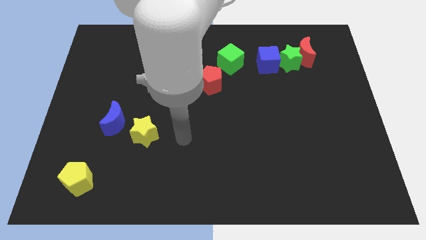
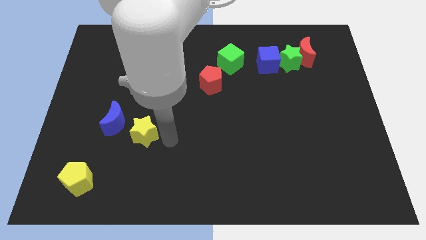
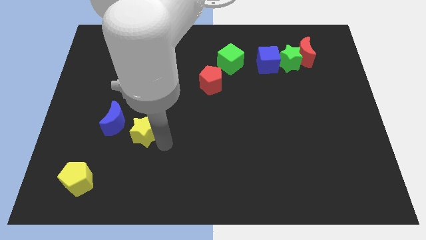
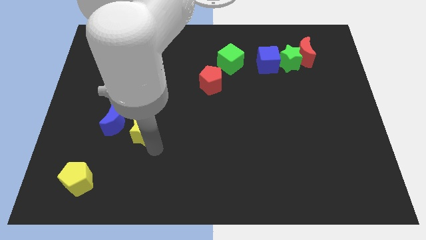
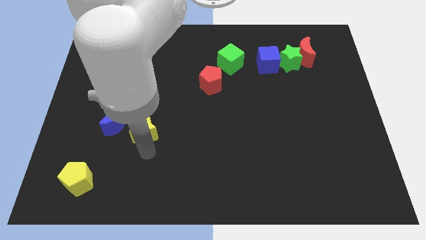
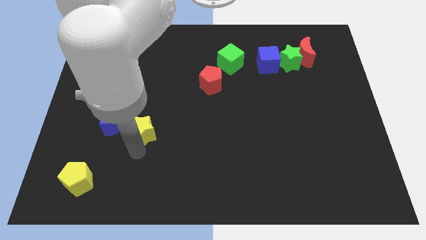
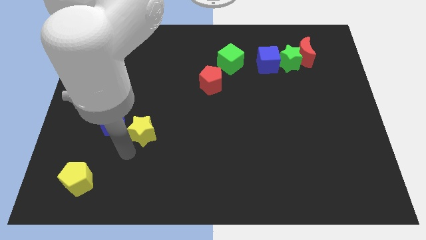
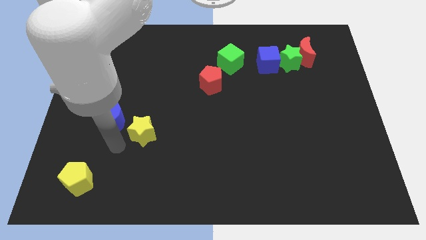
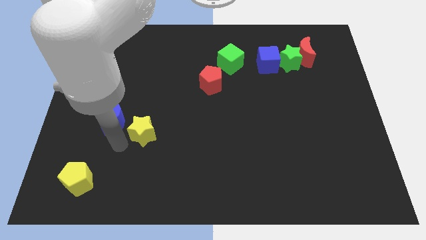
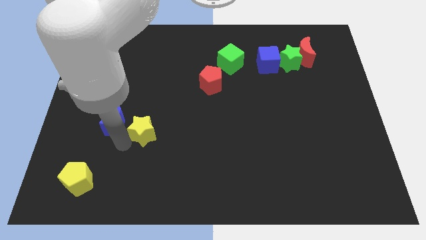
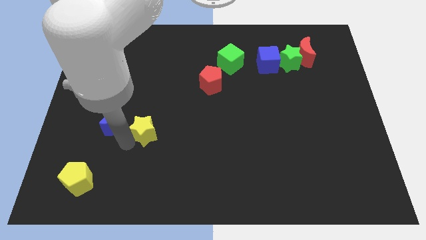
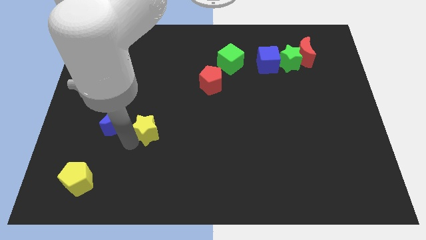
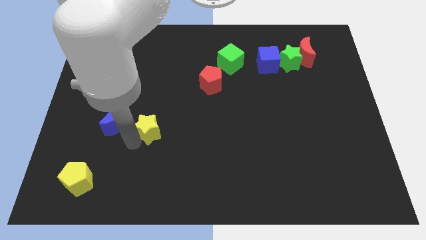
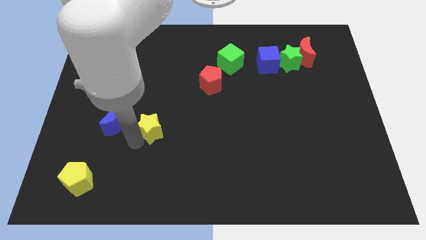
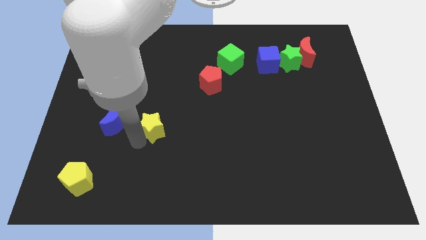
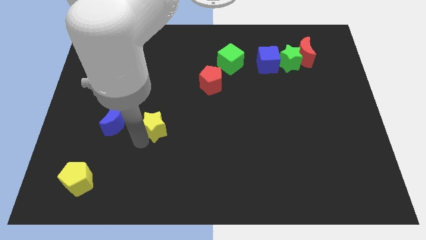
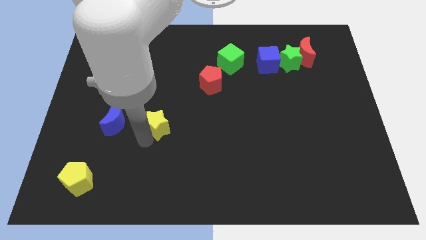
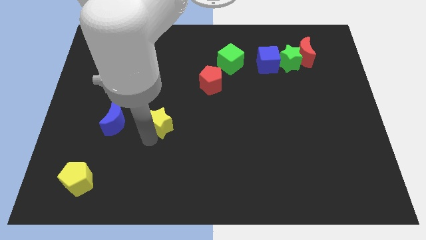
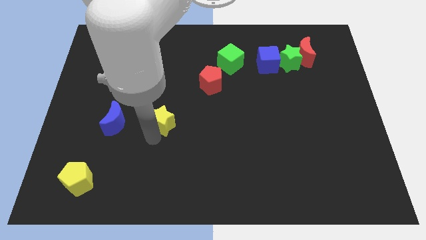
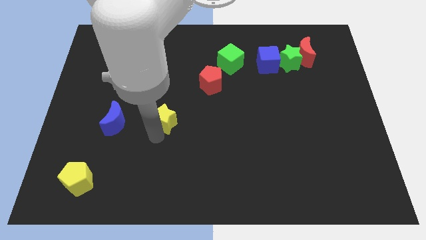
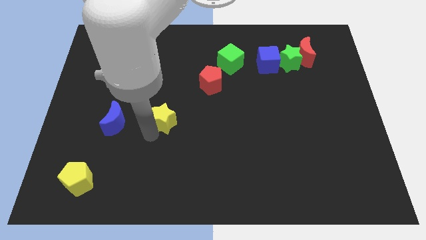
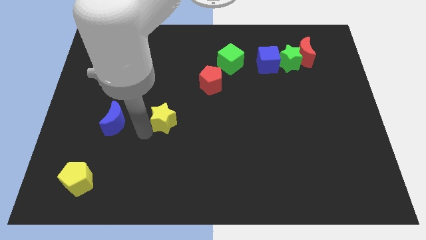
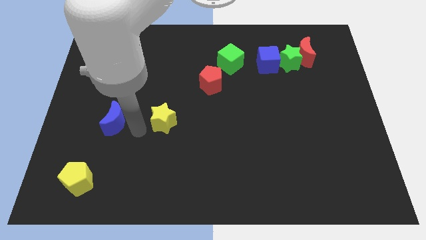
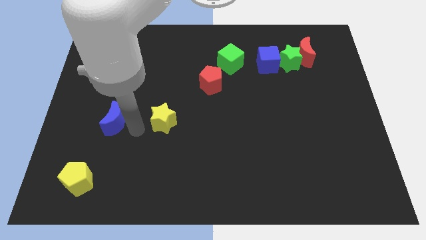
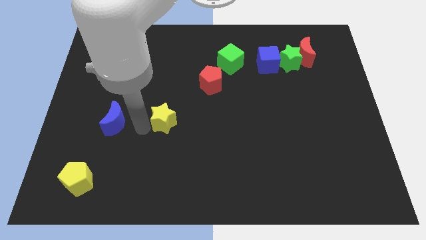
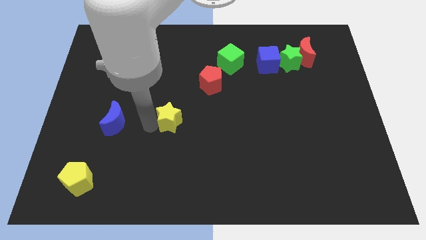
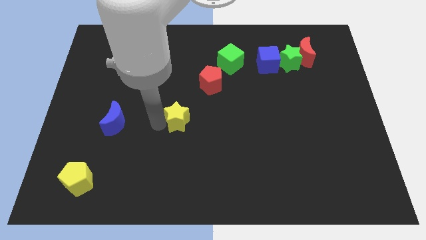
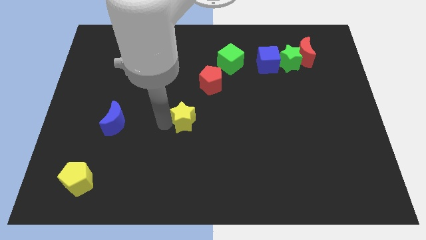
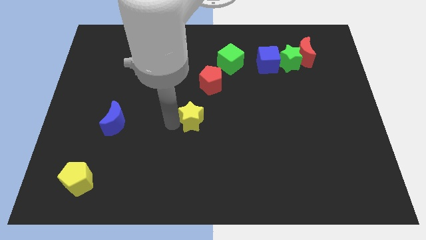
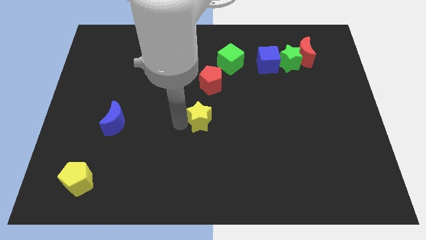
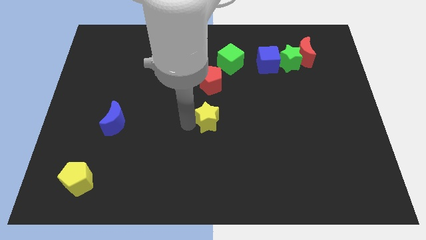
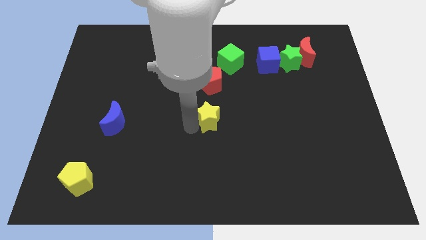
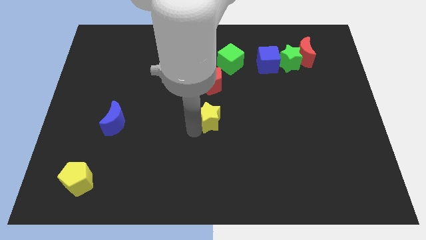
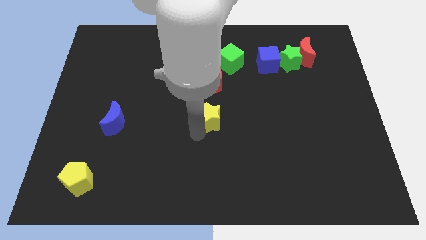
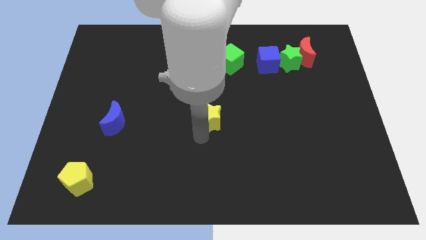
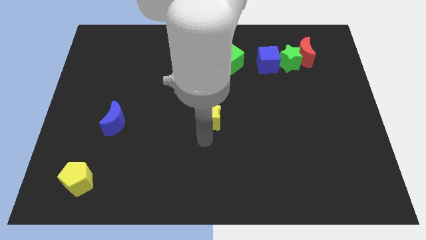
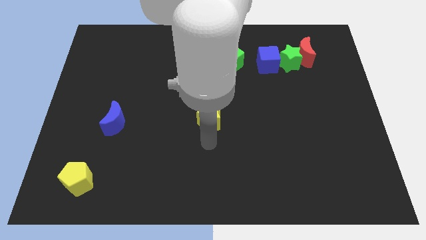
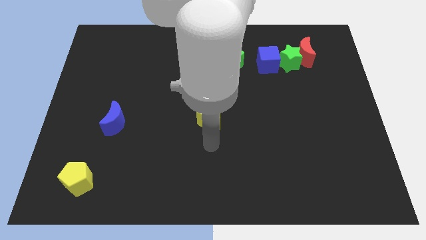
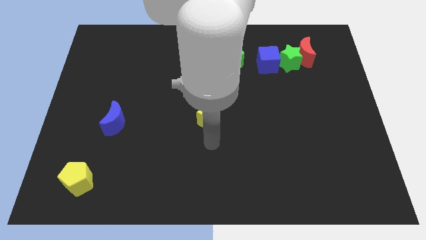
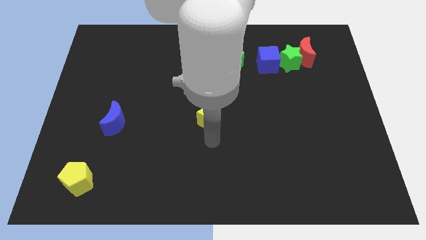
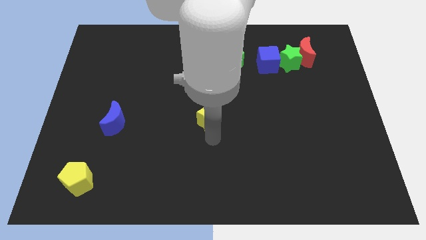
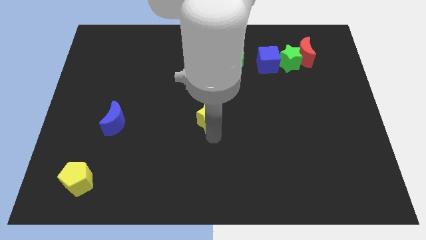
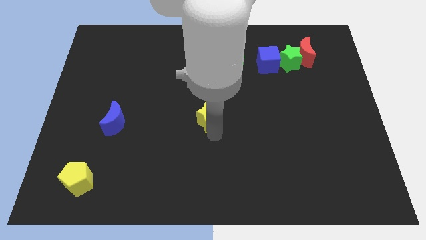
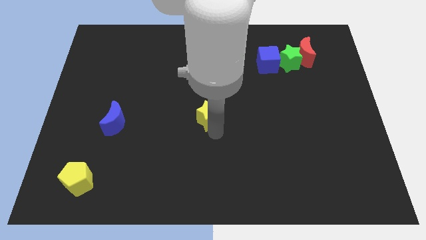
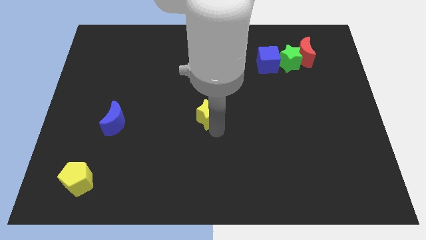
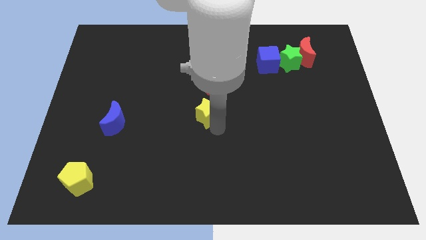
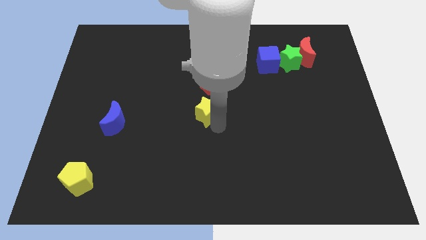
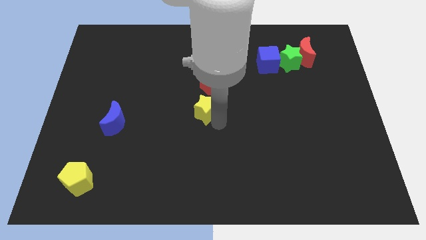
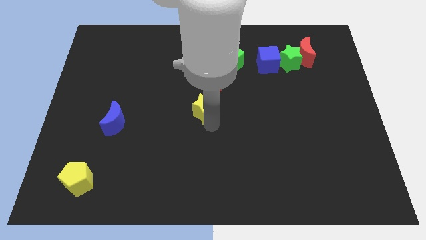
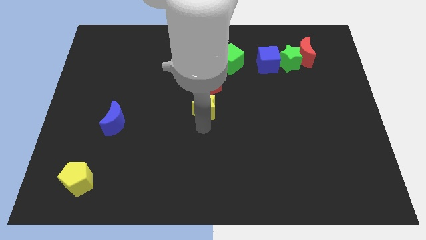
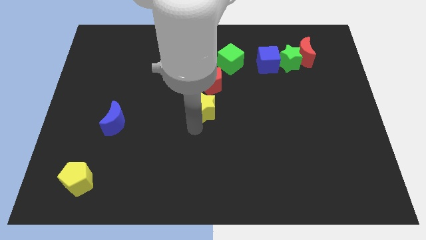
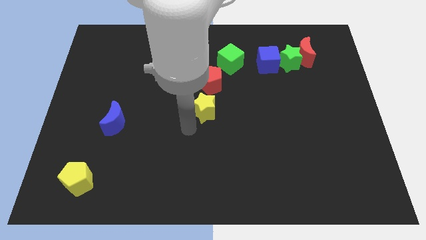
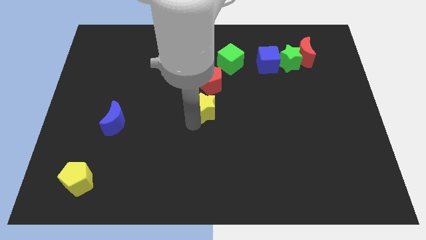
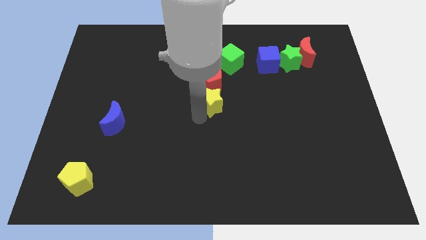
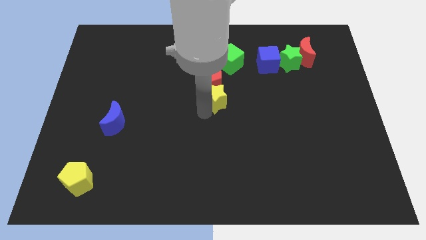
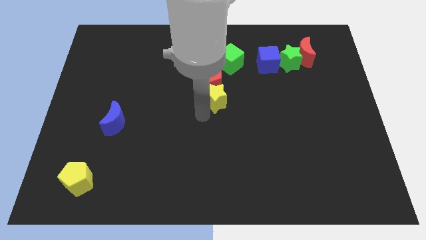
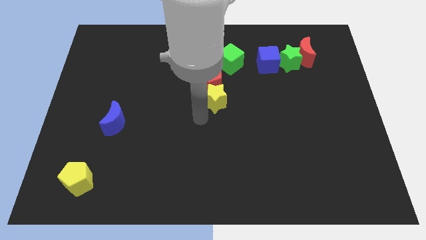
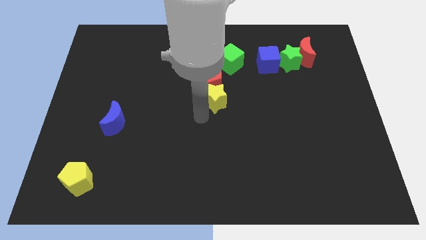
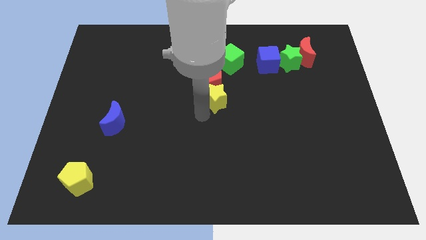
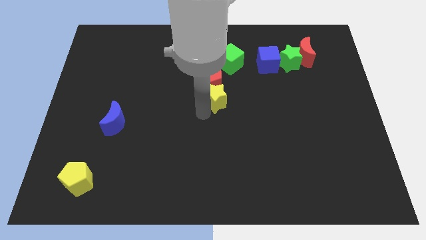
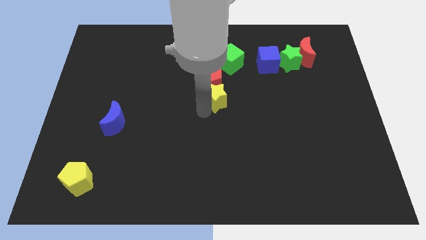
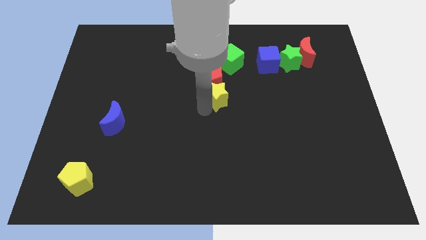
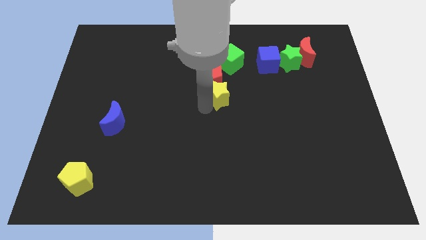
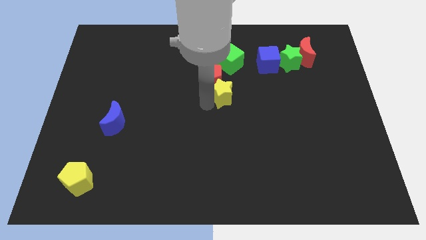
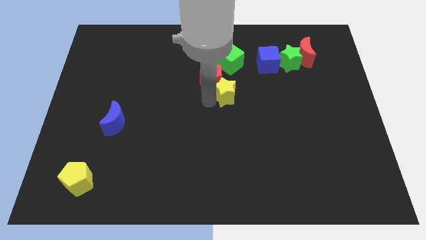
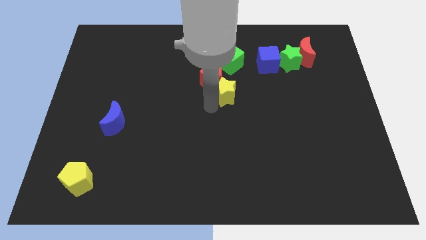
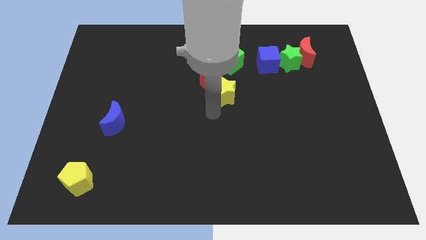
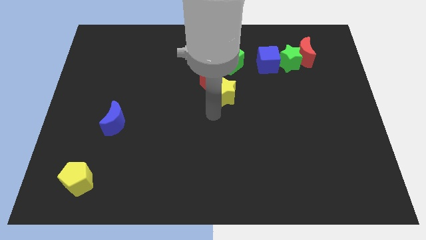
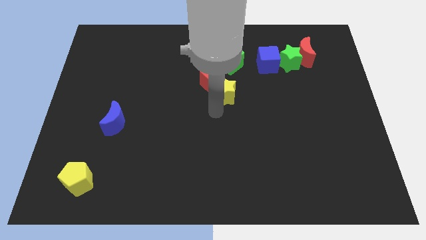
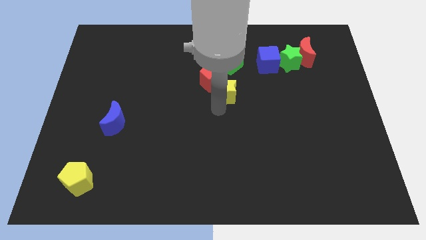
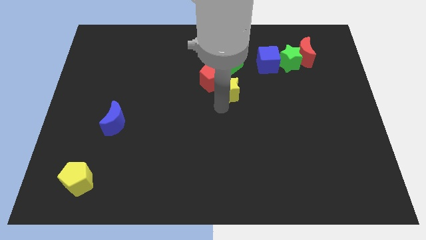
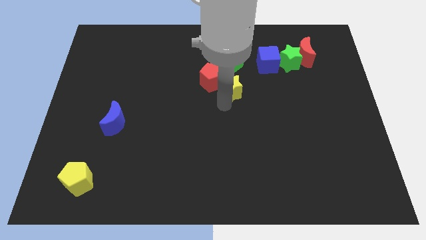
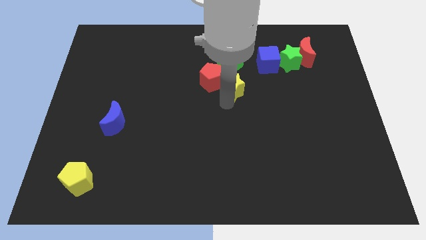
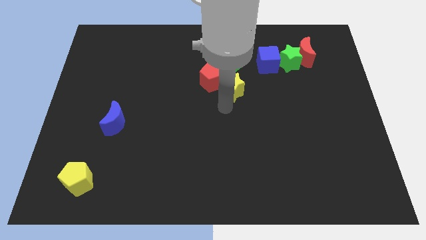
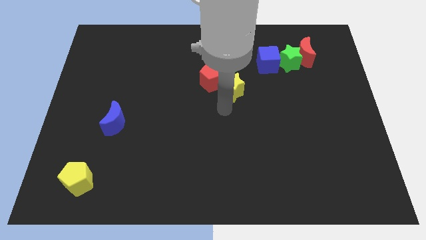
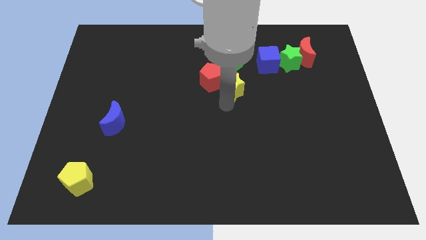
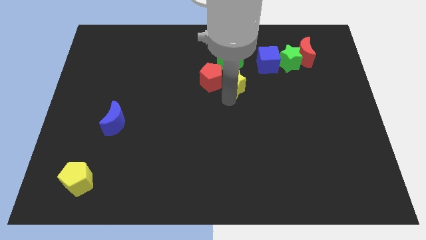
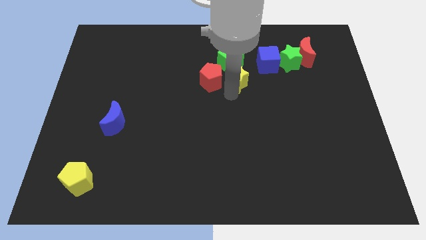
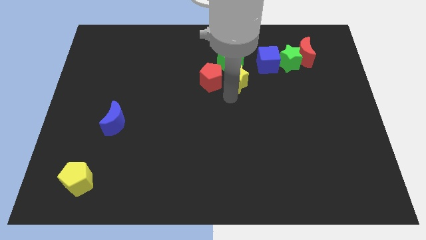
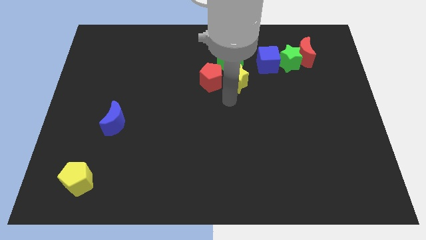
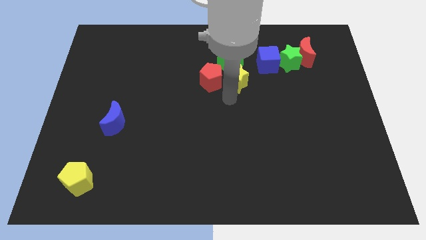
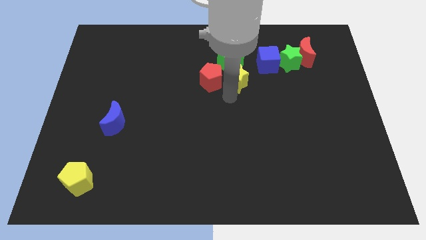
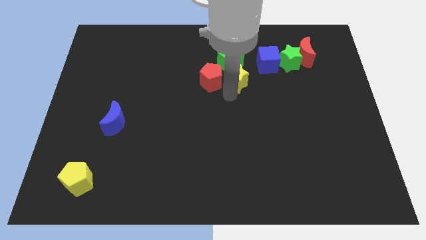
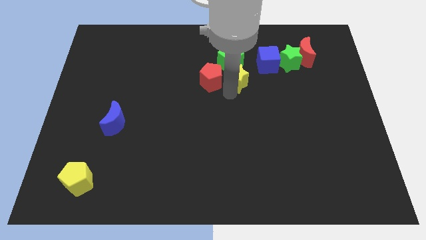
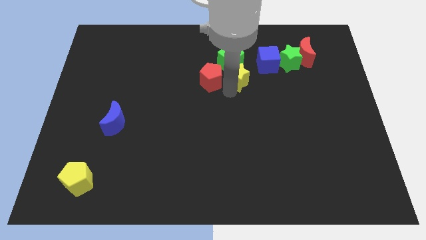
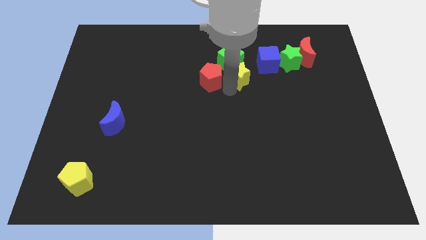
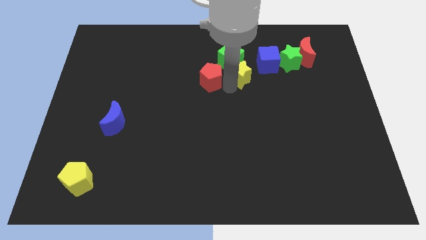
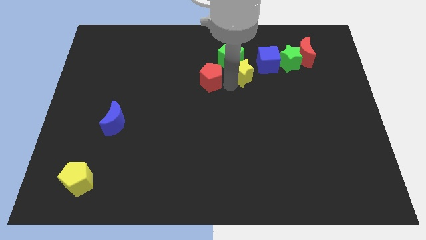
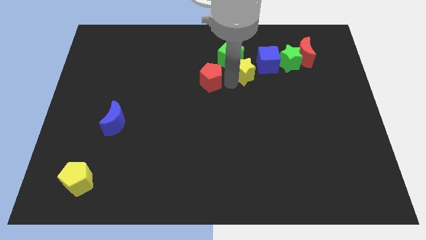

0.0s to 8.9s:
put the yellow star to the left side of the green star
